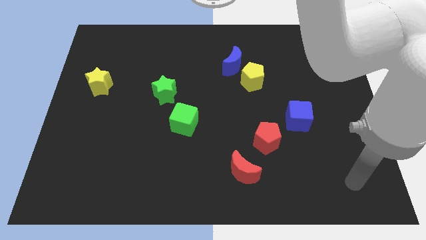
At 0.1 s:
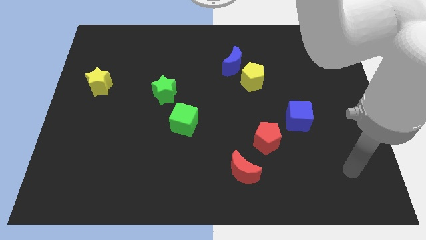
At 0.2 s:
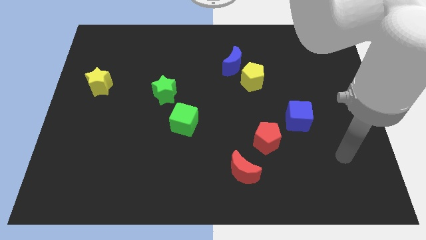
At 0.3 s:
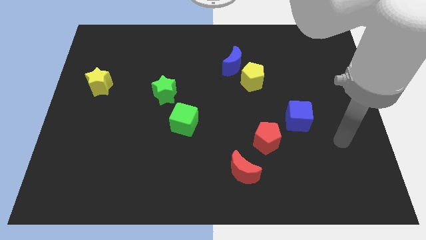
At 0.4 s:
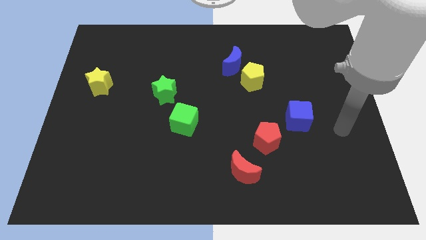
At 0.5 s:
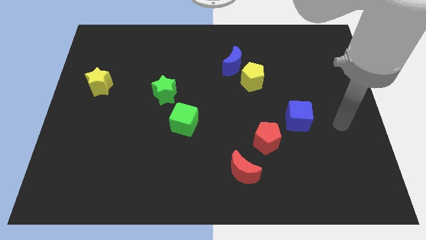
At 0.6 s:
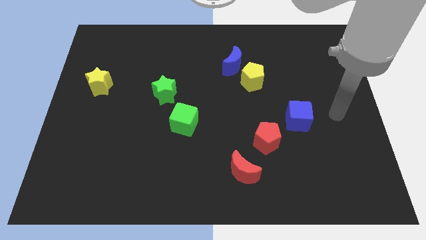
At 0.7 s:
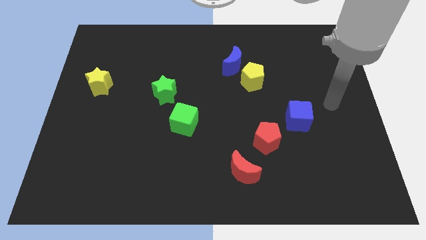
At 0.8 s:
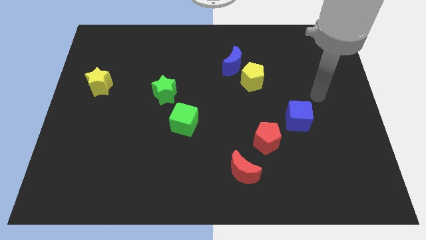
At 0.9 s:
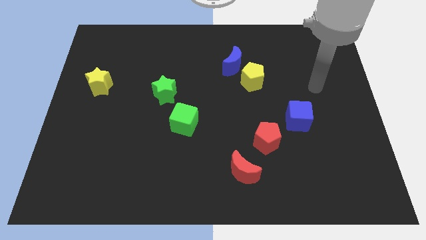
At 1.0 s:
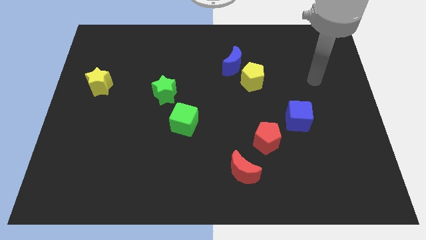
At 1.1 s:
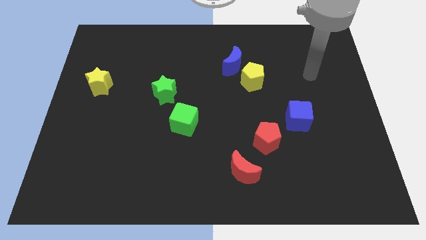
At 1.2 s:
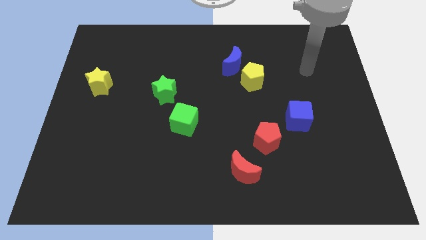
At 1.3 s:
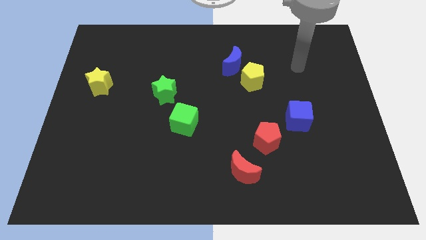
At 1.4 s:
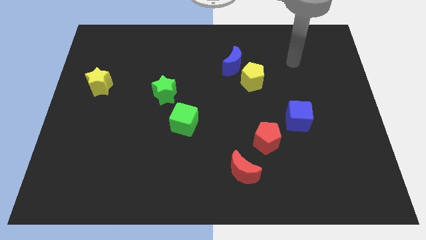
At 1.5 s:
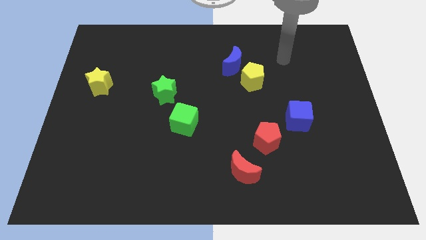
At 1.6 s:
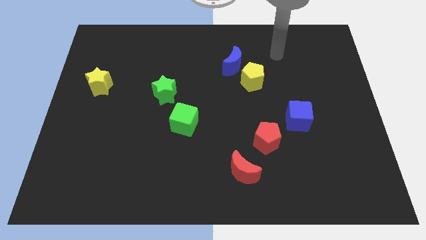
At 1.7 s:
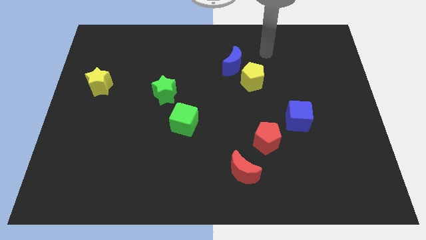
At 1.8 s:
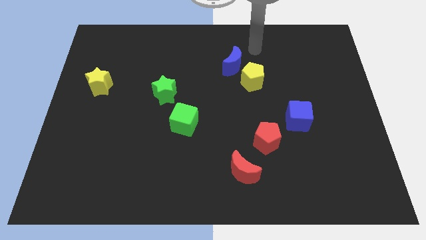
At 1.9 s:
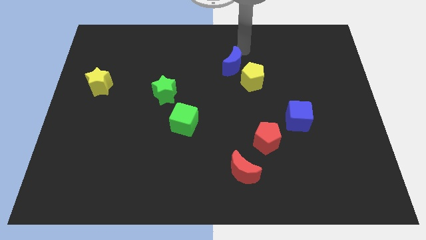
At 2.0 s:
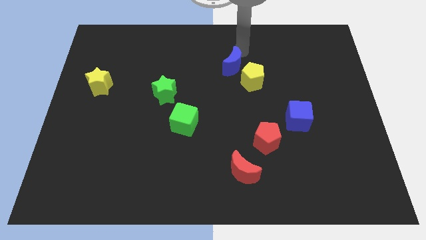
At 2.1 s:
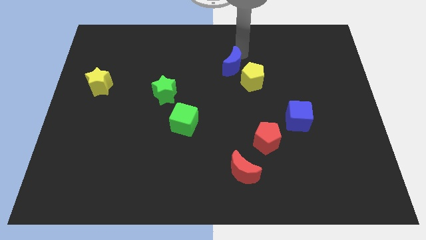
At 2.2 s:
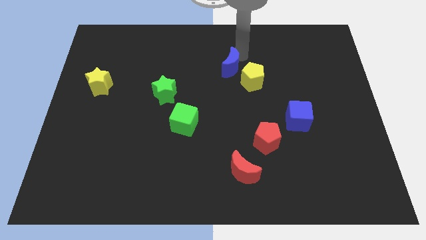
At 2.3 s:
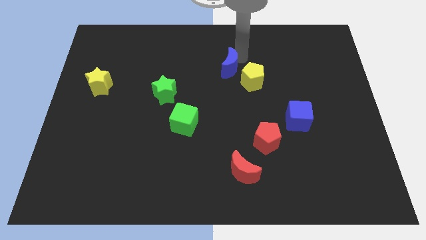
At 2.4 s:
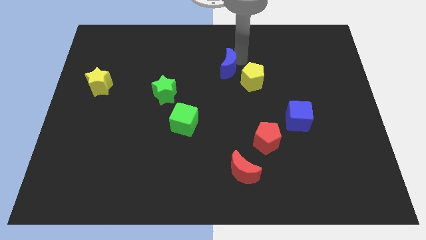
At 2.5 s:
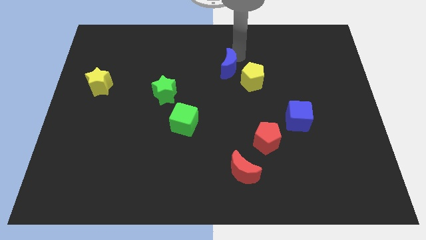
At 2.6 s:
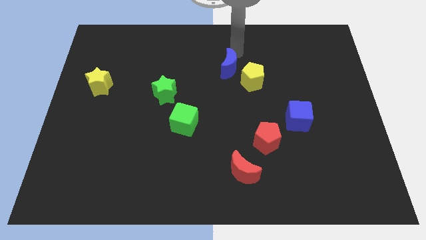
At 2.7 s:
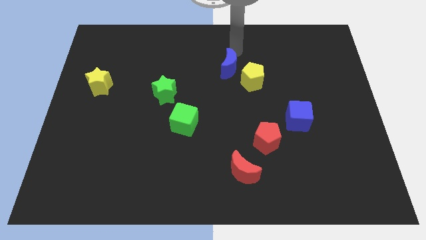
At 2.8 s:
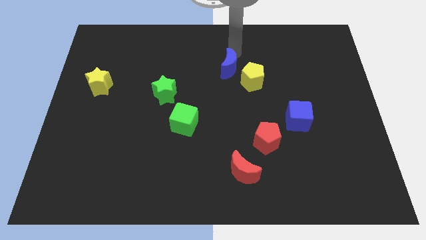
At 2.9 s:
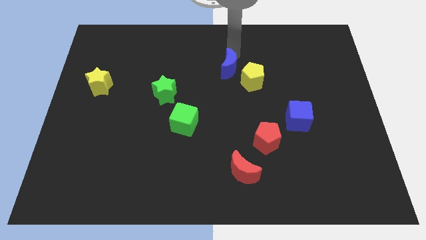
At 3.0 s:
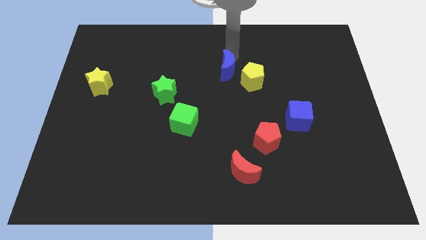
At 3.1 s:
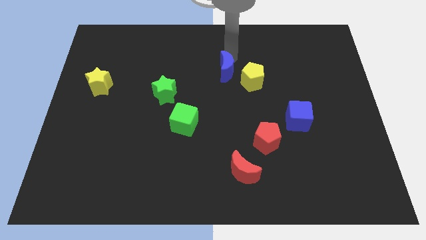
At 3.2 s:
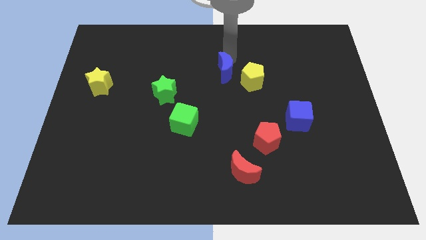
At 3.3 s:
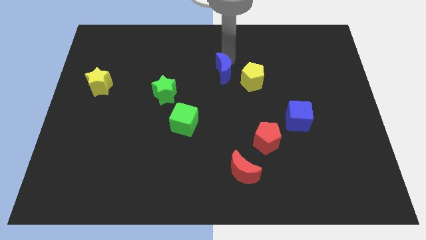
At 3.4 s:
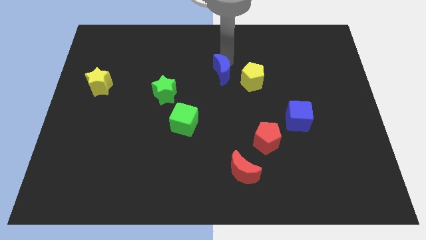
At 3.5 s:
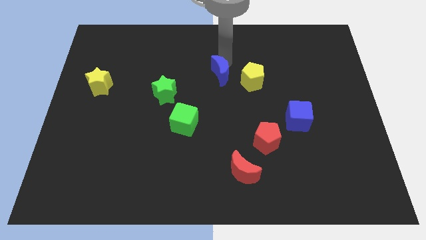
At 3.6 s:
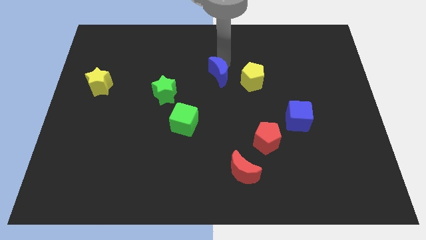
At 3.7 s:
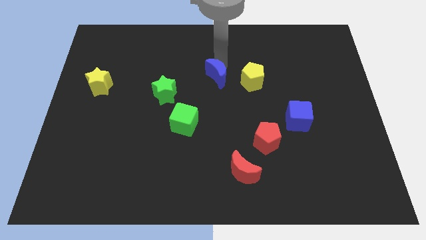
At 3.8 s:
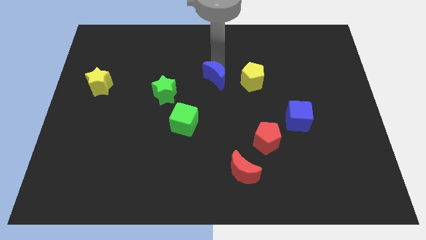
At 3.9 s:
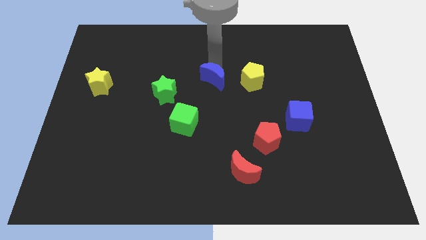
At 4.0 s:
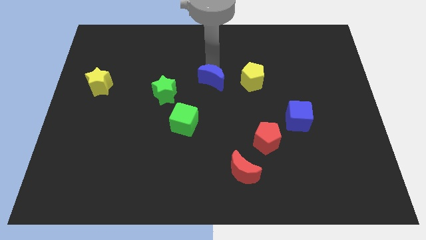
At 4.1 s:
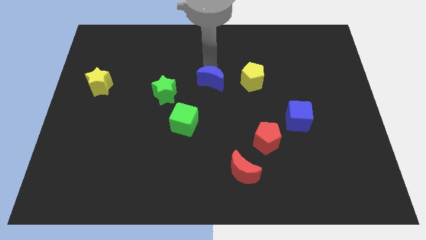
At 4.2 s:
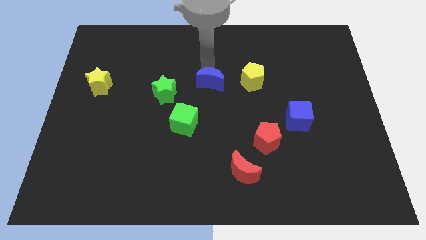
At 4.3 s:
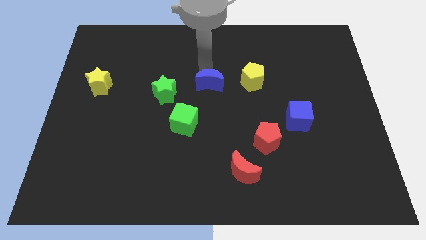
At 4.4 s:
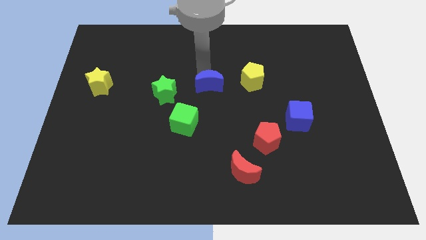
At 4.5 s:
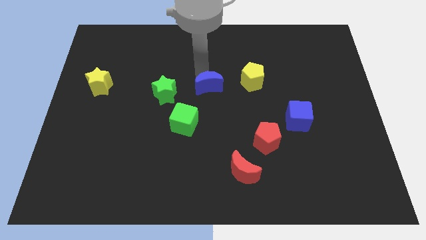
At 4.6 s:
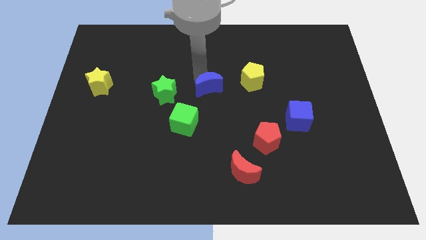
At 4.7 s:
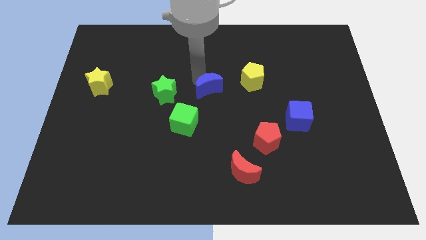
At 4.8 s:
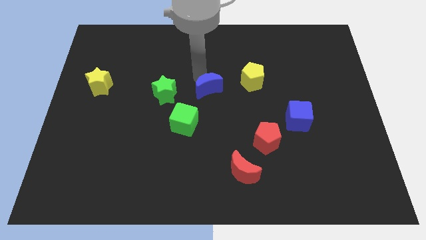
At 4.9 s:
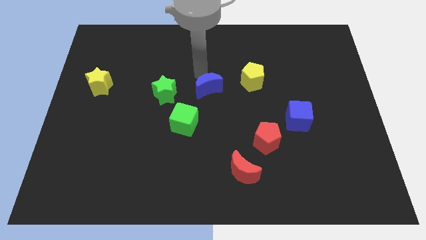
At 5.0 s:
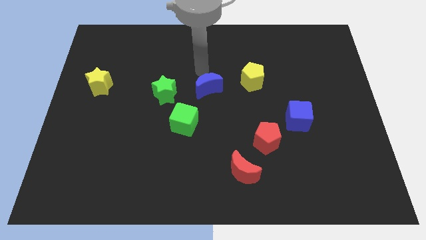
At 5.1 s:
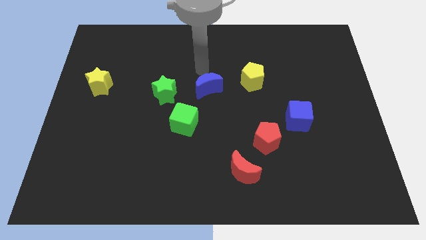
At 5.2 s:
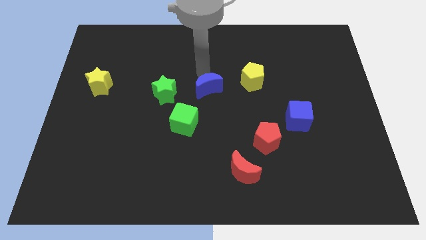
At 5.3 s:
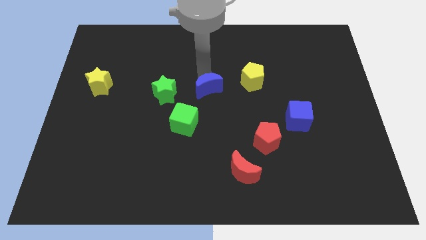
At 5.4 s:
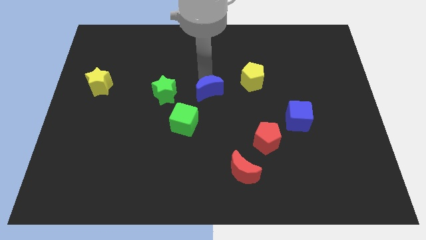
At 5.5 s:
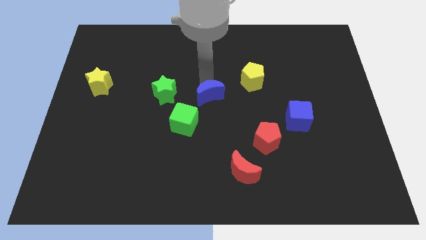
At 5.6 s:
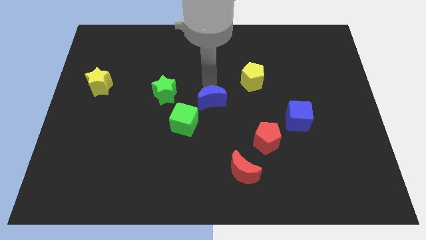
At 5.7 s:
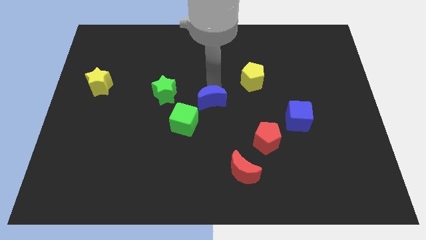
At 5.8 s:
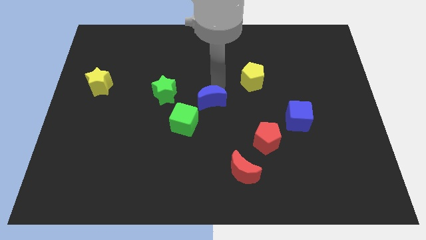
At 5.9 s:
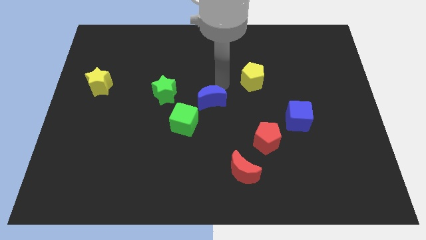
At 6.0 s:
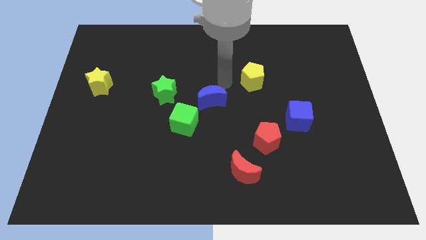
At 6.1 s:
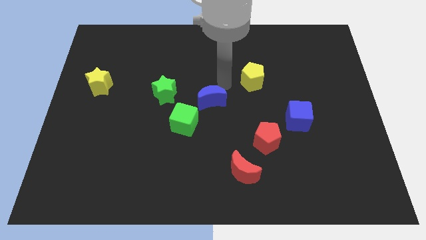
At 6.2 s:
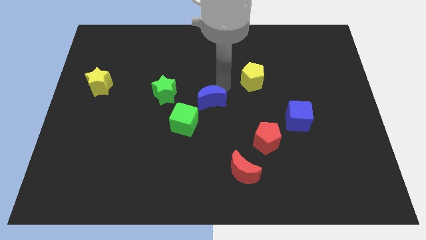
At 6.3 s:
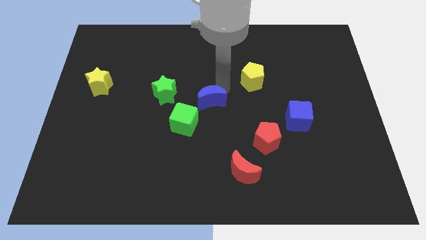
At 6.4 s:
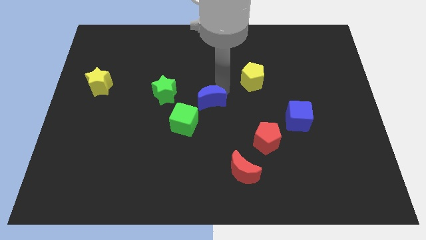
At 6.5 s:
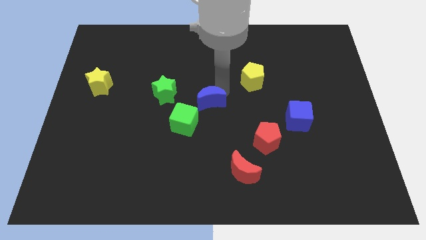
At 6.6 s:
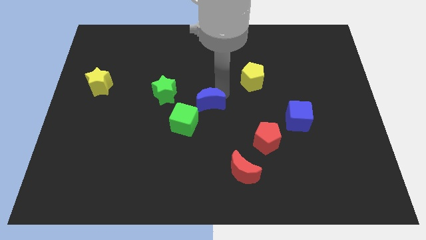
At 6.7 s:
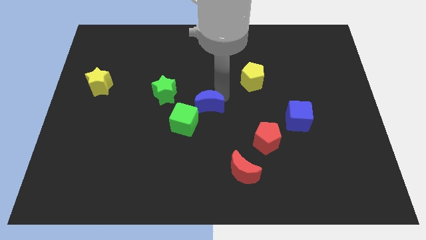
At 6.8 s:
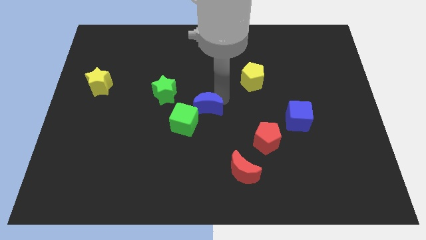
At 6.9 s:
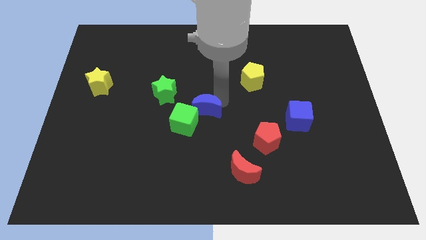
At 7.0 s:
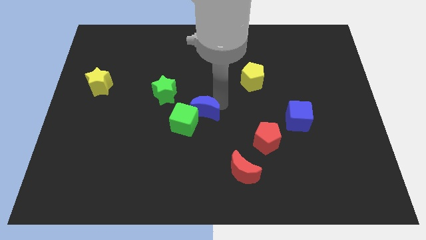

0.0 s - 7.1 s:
move the blue moon towards the green cube

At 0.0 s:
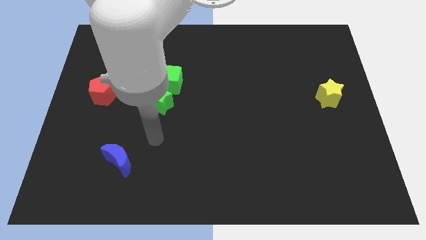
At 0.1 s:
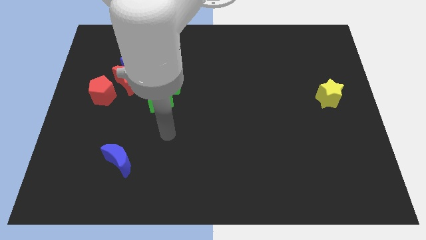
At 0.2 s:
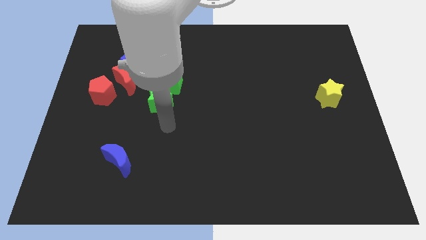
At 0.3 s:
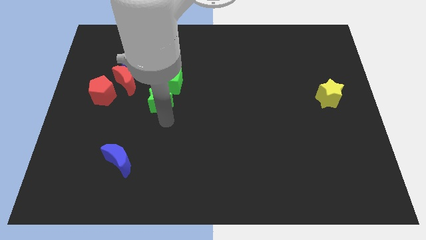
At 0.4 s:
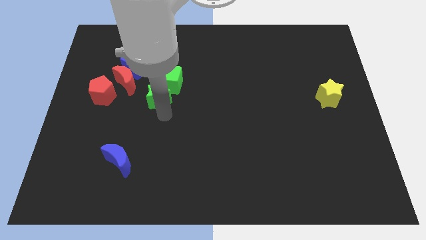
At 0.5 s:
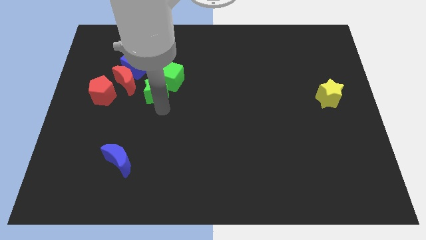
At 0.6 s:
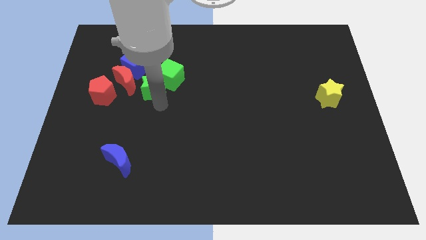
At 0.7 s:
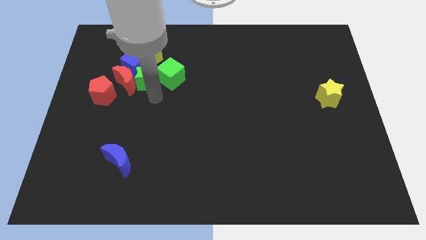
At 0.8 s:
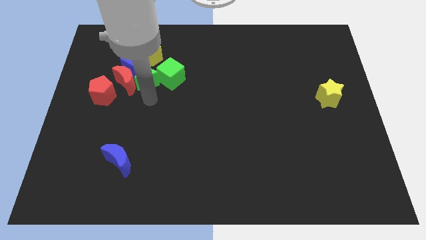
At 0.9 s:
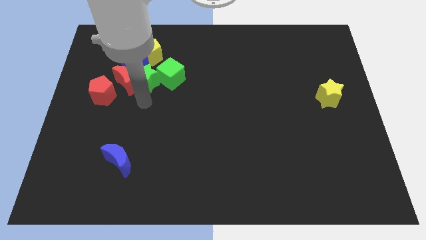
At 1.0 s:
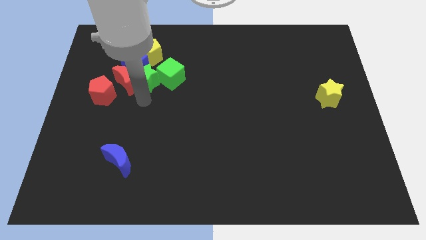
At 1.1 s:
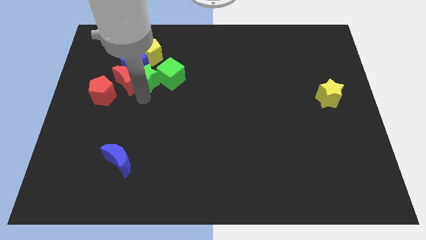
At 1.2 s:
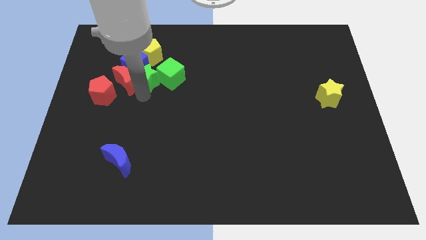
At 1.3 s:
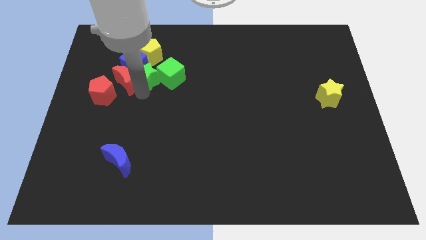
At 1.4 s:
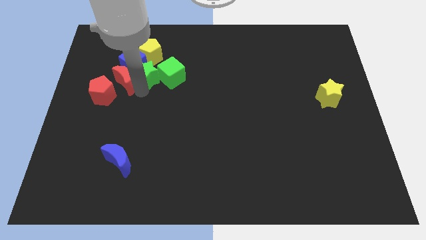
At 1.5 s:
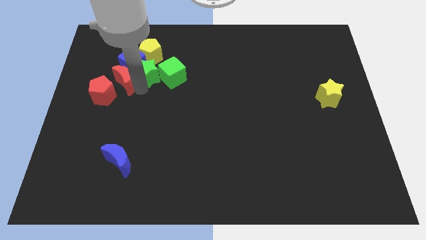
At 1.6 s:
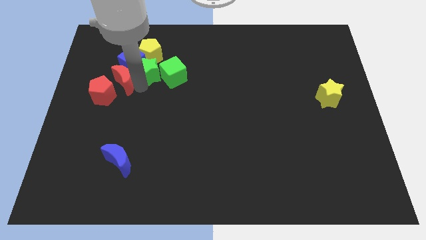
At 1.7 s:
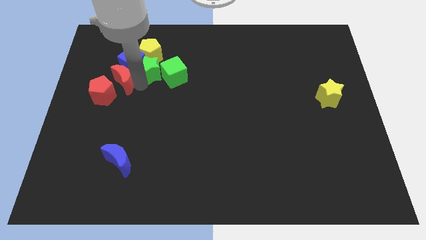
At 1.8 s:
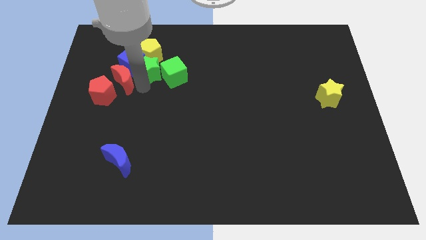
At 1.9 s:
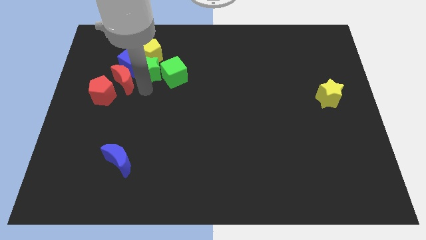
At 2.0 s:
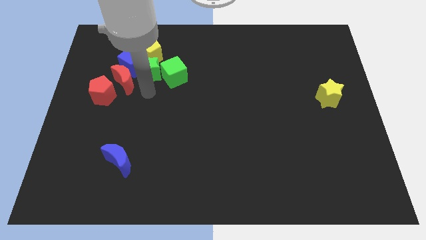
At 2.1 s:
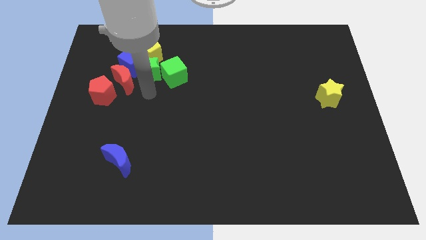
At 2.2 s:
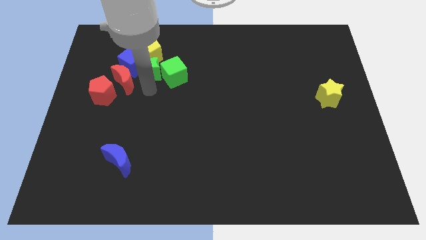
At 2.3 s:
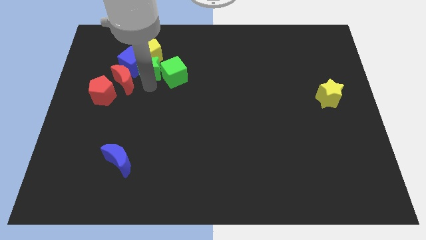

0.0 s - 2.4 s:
slide the green star towards the yellow pentagon
